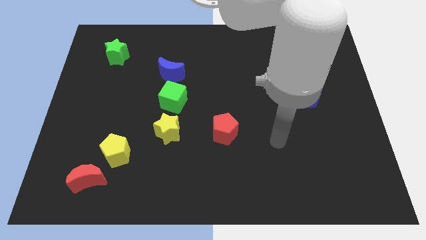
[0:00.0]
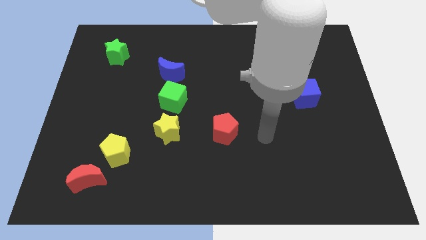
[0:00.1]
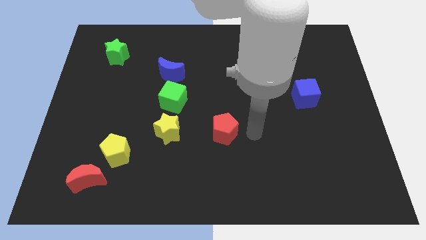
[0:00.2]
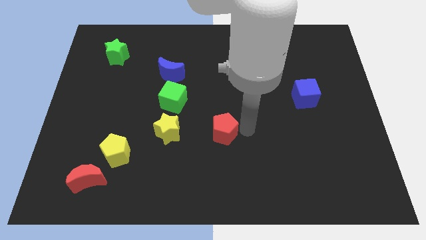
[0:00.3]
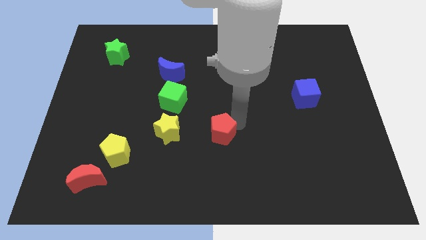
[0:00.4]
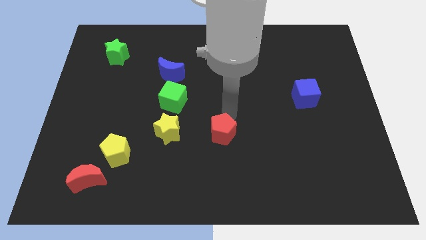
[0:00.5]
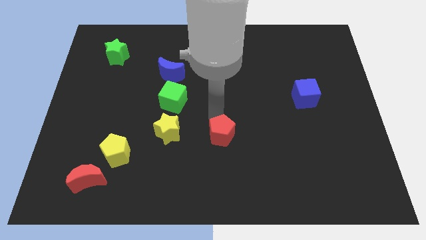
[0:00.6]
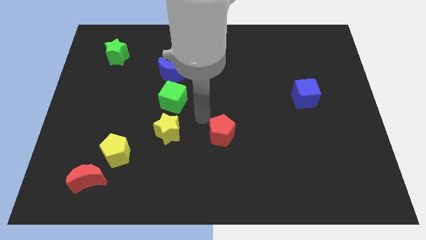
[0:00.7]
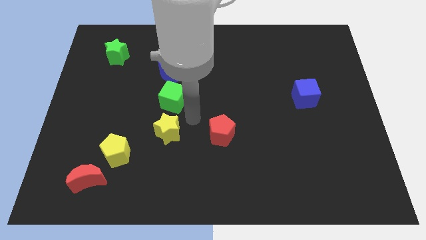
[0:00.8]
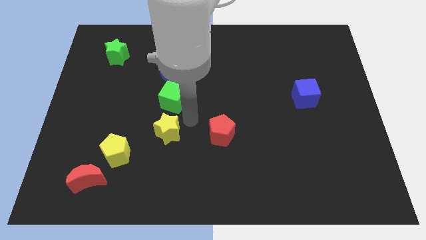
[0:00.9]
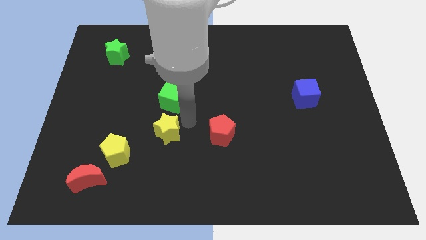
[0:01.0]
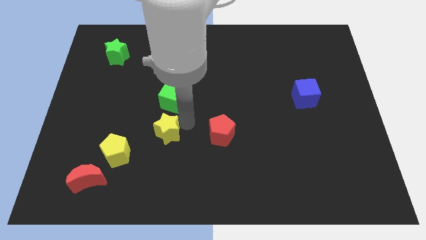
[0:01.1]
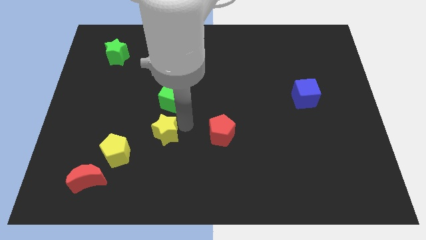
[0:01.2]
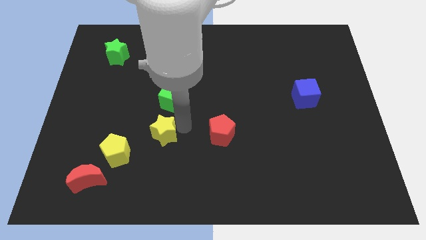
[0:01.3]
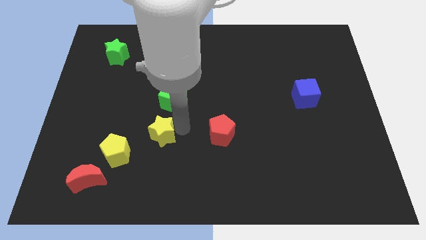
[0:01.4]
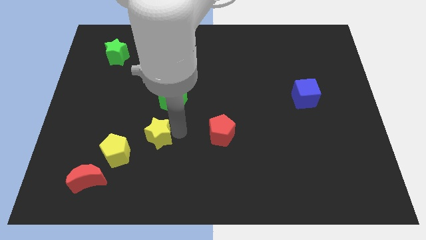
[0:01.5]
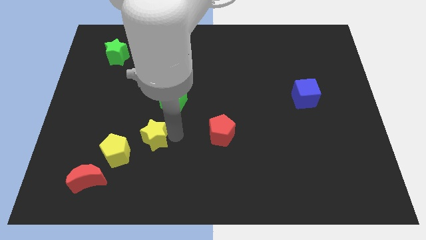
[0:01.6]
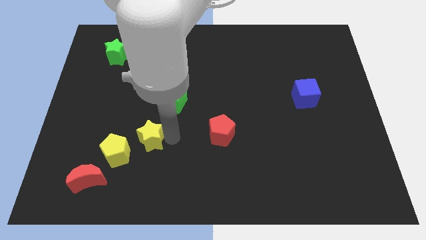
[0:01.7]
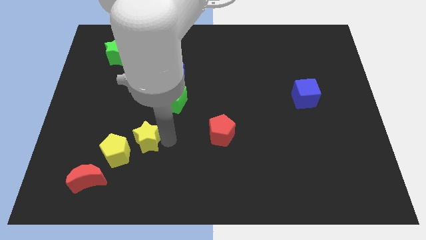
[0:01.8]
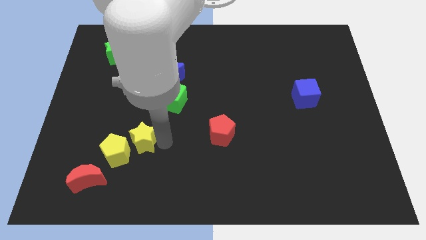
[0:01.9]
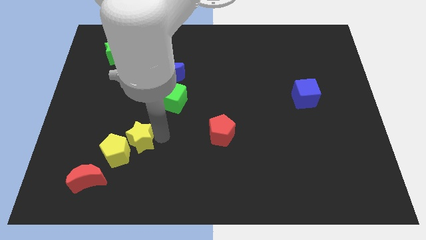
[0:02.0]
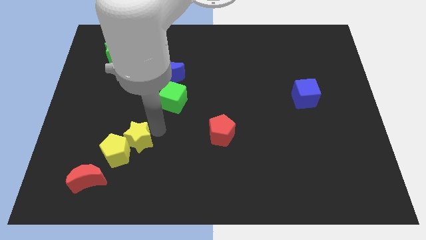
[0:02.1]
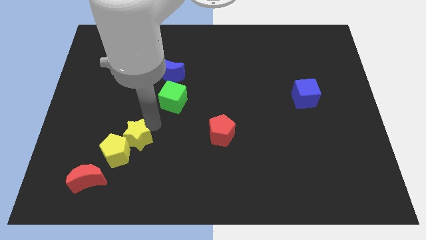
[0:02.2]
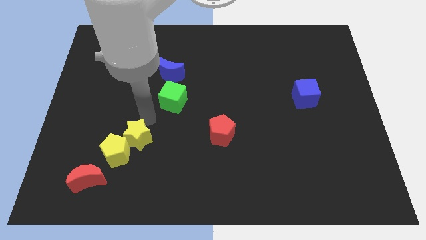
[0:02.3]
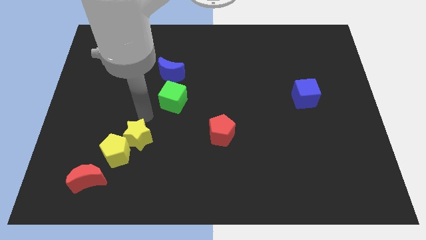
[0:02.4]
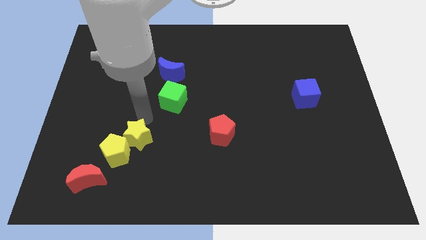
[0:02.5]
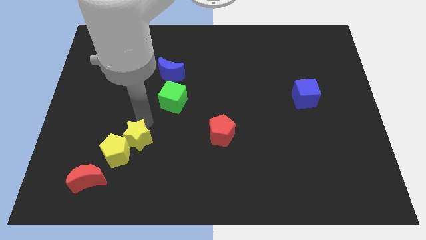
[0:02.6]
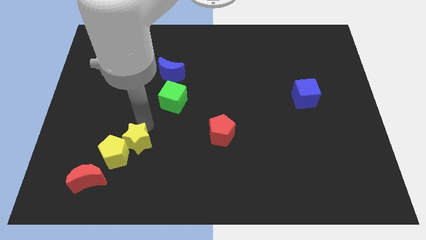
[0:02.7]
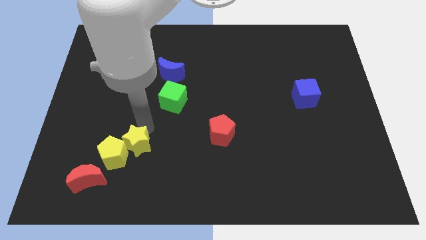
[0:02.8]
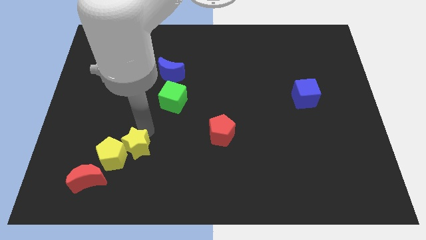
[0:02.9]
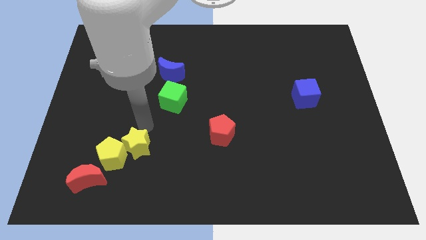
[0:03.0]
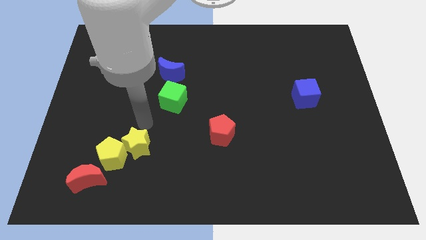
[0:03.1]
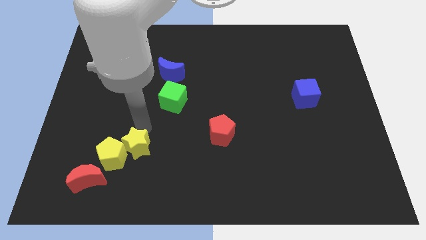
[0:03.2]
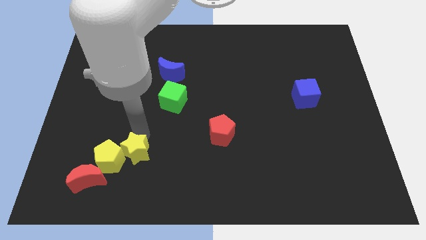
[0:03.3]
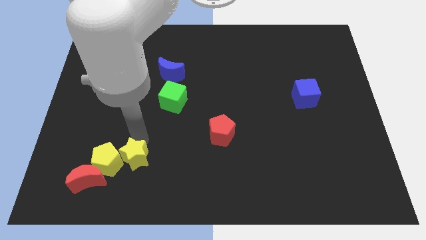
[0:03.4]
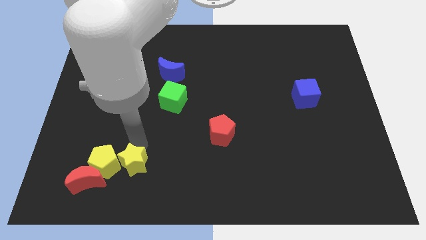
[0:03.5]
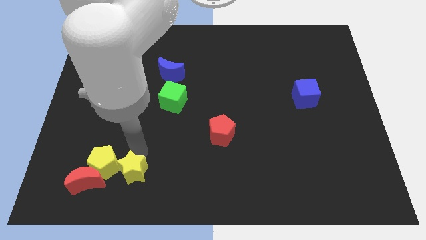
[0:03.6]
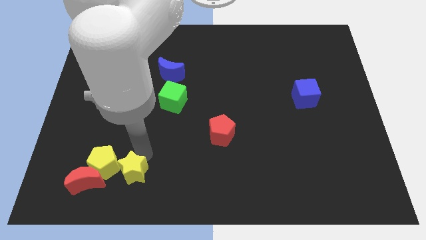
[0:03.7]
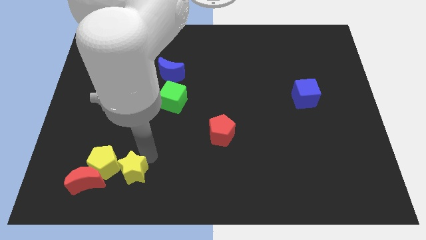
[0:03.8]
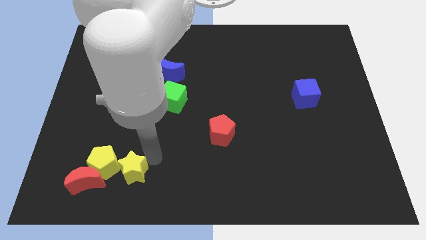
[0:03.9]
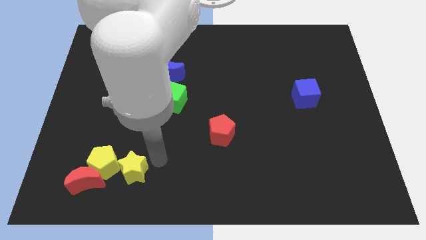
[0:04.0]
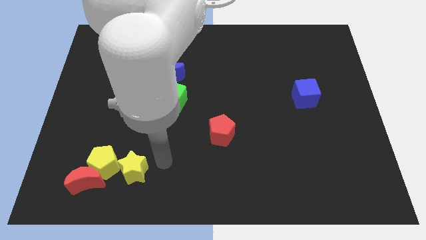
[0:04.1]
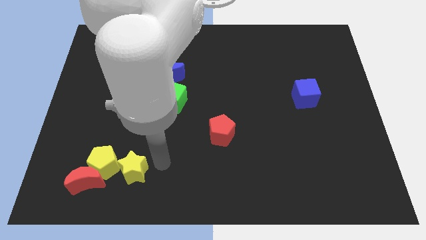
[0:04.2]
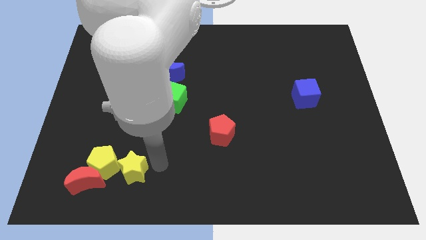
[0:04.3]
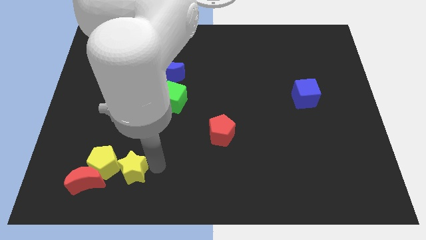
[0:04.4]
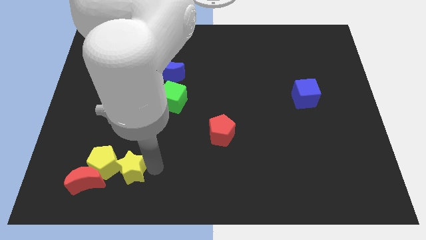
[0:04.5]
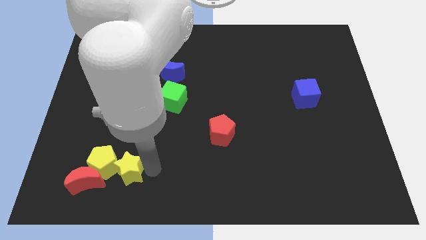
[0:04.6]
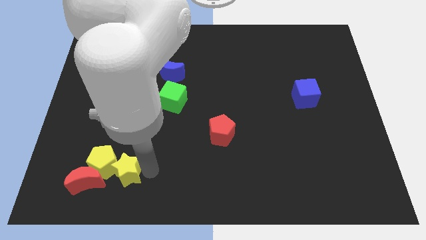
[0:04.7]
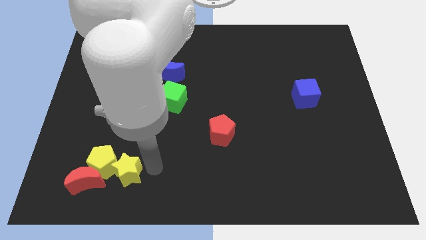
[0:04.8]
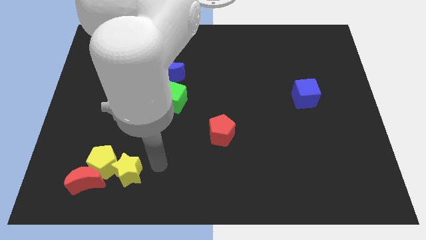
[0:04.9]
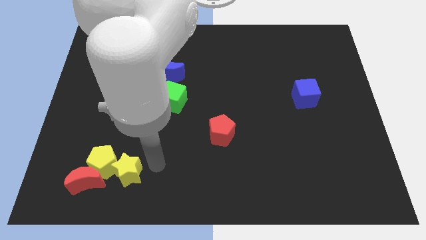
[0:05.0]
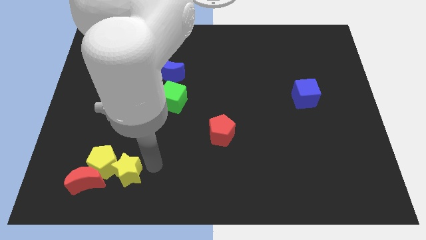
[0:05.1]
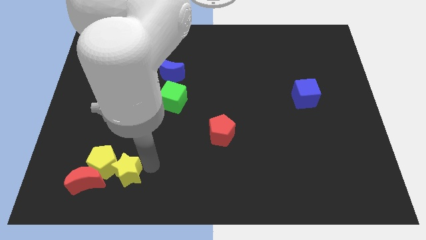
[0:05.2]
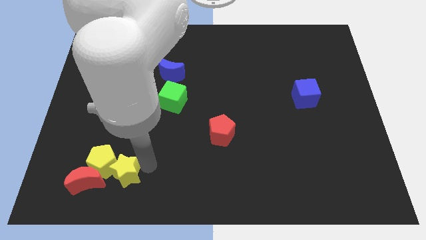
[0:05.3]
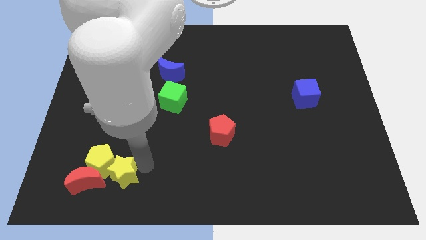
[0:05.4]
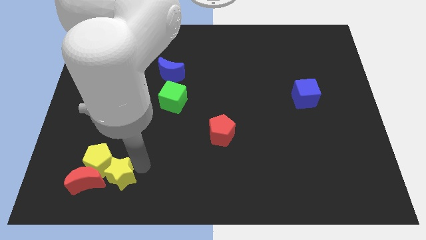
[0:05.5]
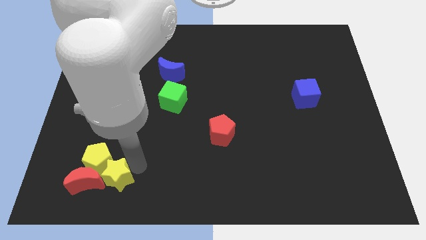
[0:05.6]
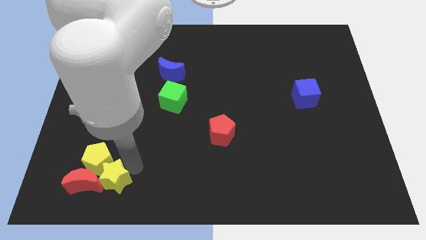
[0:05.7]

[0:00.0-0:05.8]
slide the yellow star towards the red moon

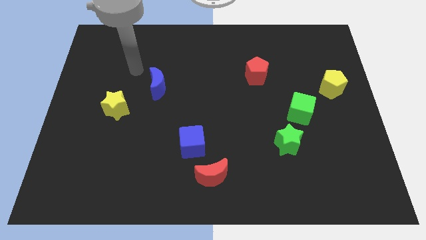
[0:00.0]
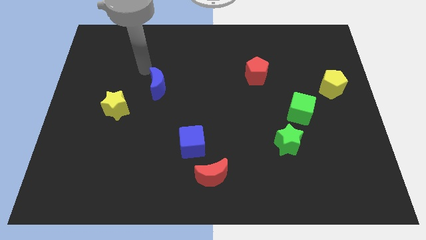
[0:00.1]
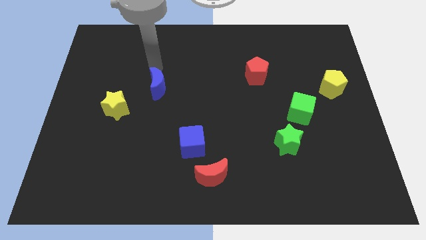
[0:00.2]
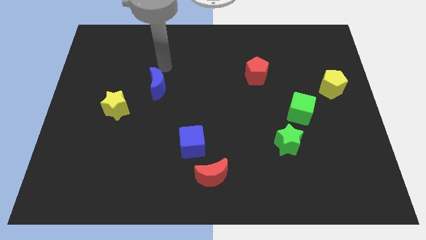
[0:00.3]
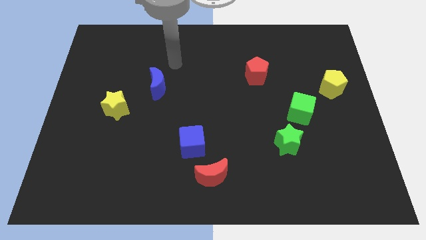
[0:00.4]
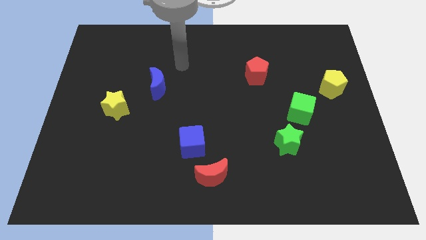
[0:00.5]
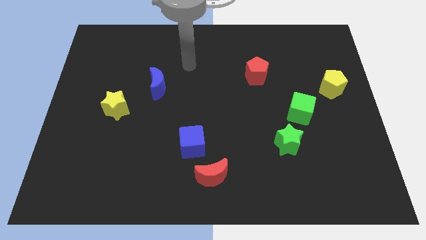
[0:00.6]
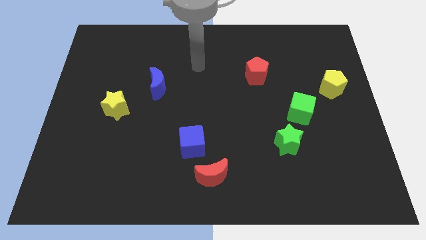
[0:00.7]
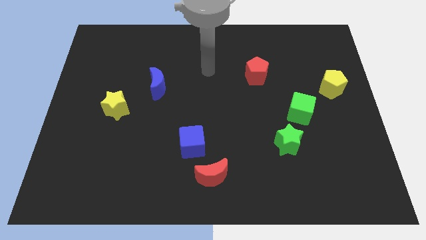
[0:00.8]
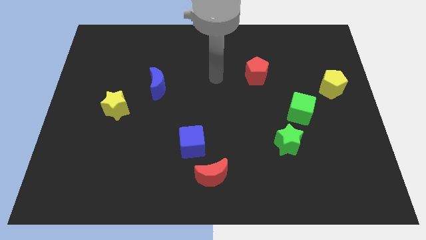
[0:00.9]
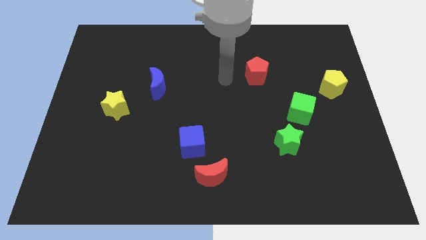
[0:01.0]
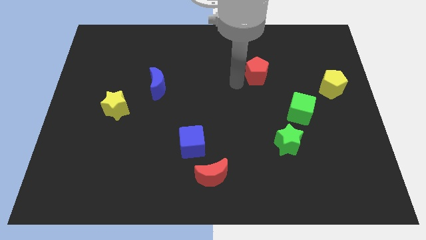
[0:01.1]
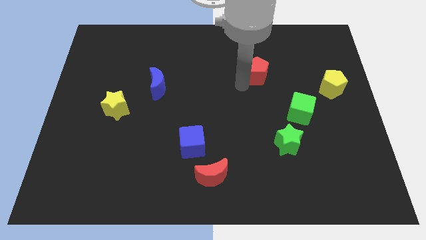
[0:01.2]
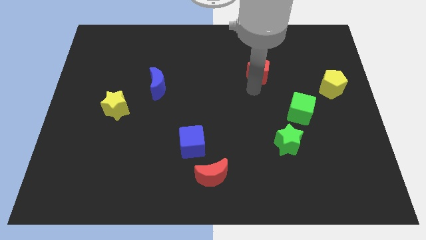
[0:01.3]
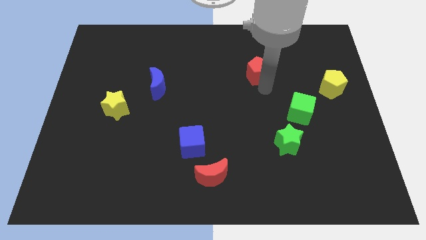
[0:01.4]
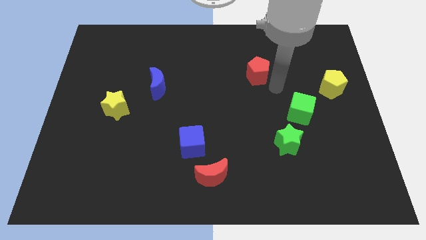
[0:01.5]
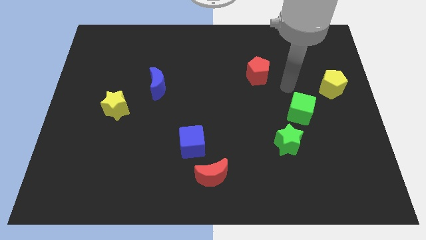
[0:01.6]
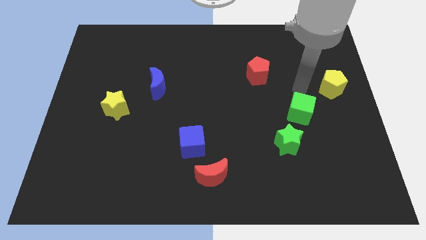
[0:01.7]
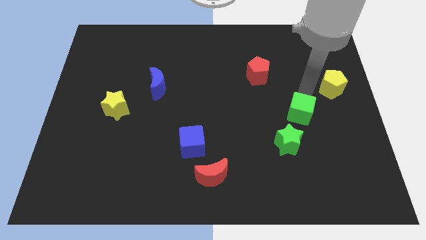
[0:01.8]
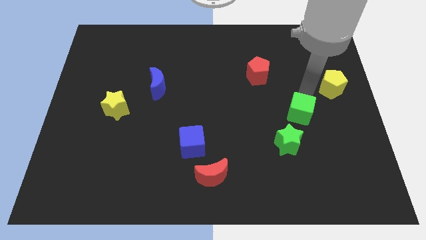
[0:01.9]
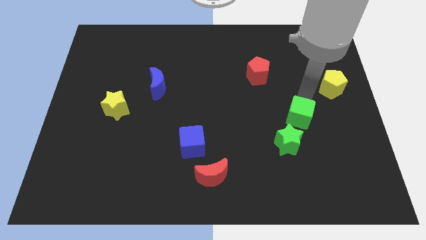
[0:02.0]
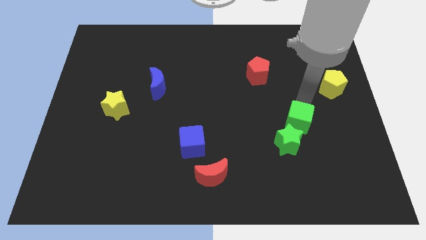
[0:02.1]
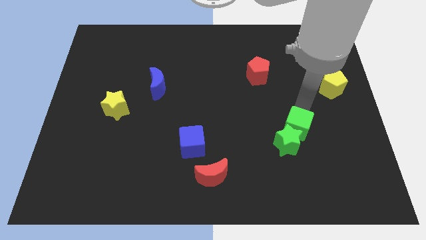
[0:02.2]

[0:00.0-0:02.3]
move the green cube close to the green star

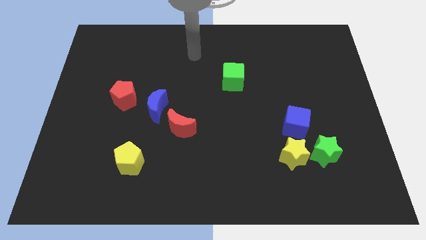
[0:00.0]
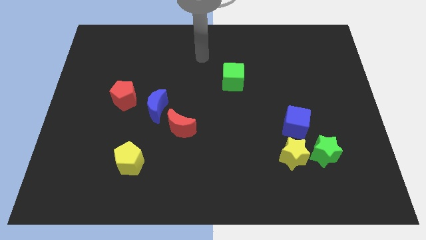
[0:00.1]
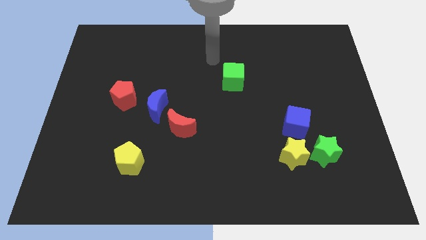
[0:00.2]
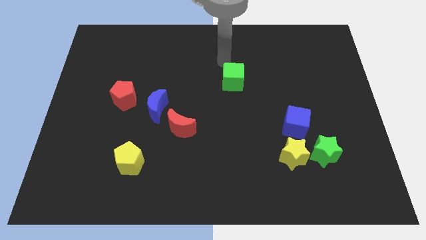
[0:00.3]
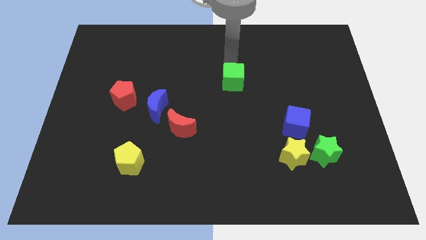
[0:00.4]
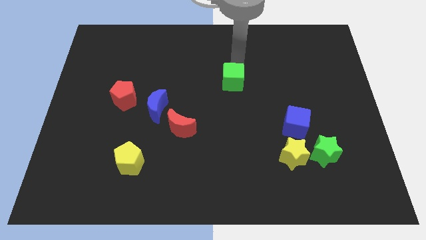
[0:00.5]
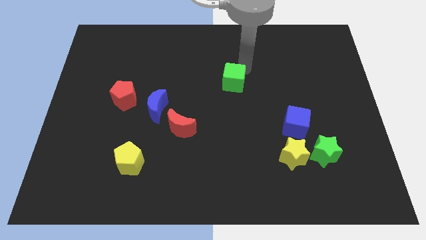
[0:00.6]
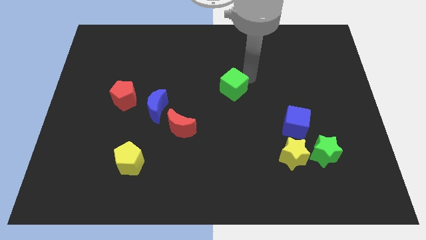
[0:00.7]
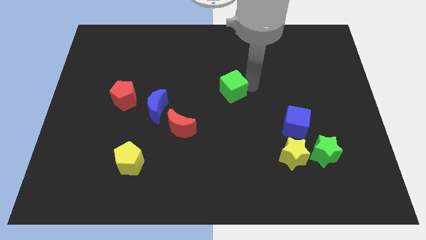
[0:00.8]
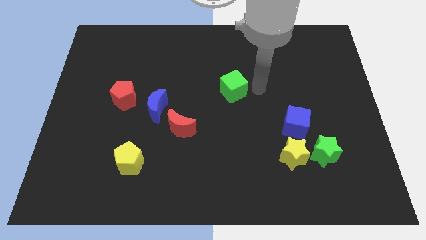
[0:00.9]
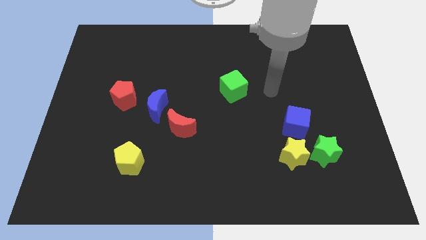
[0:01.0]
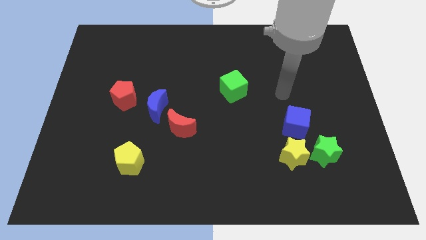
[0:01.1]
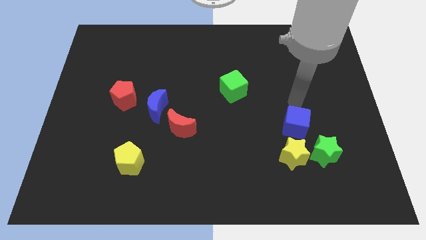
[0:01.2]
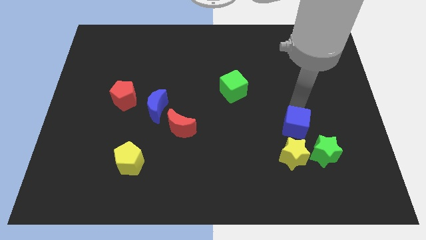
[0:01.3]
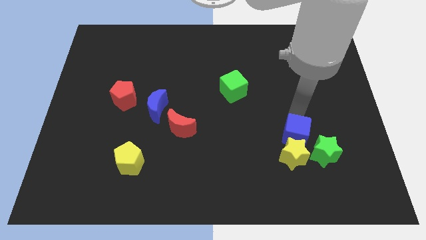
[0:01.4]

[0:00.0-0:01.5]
slide the blue cube towards the yellow star
